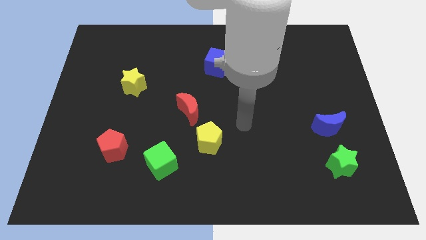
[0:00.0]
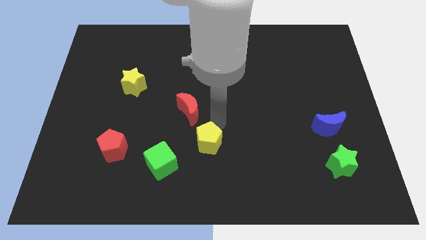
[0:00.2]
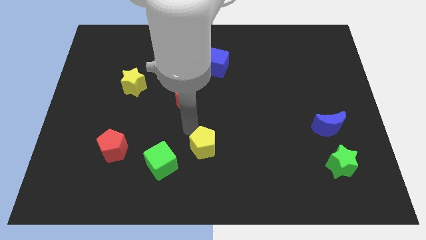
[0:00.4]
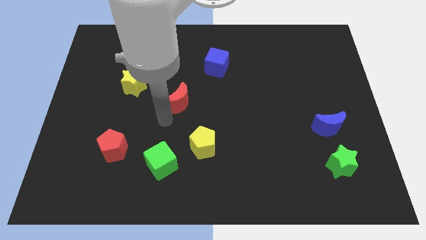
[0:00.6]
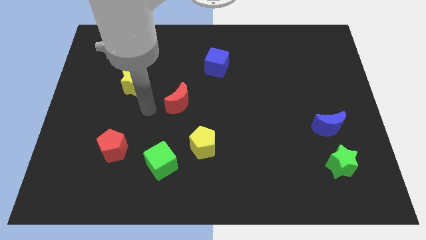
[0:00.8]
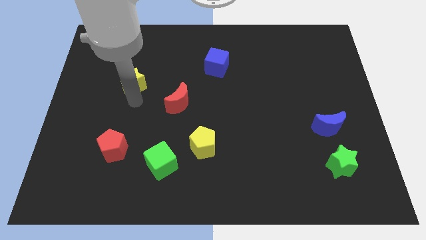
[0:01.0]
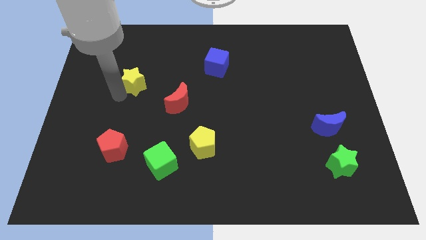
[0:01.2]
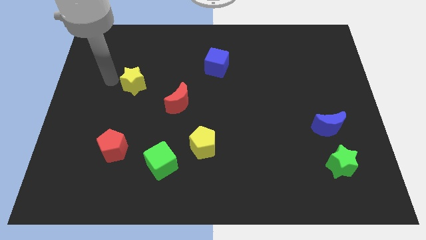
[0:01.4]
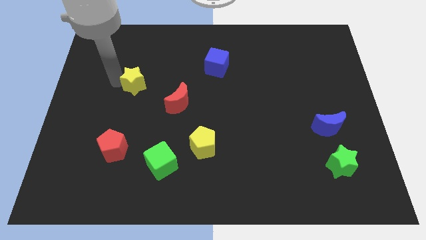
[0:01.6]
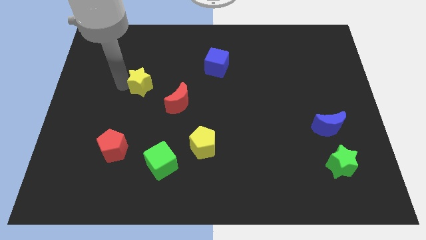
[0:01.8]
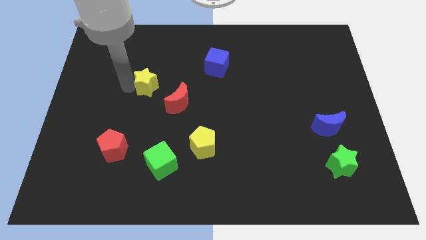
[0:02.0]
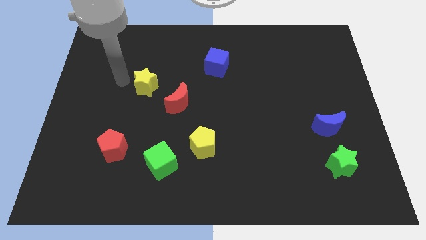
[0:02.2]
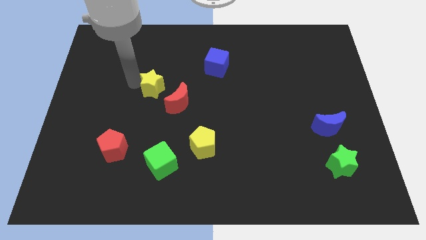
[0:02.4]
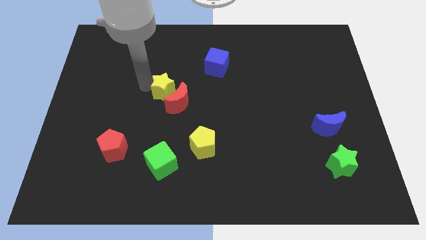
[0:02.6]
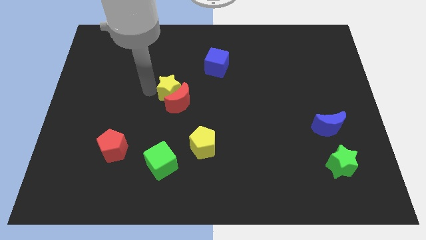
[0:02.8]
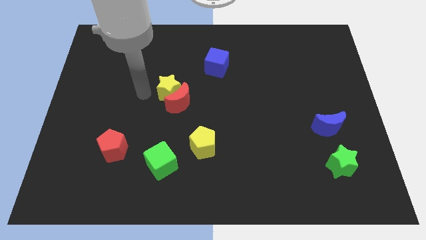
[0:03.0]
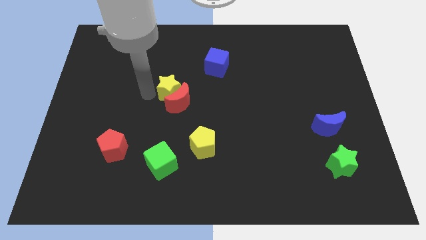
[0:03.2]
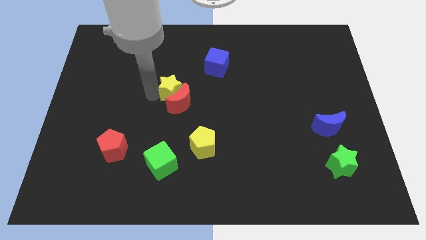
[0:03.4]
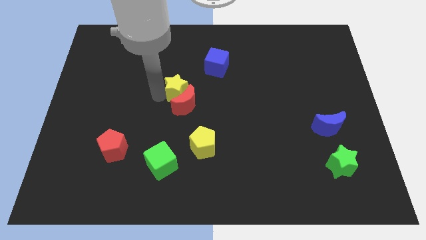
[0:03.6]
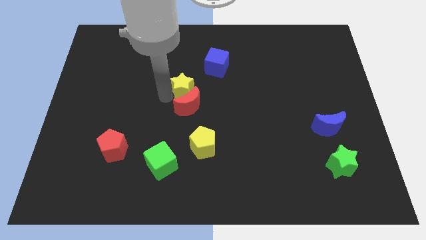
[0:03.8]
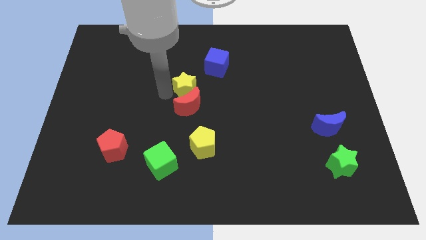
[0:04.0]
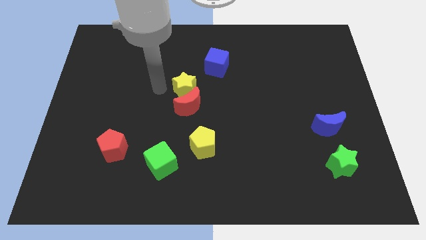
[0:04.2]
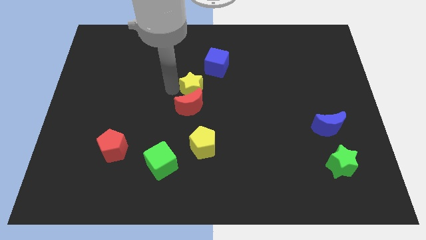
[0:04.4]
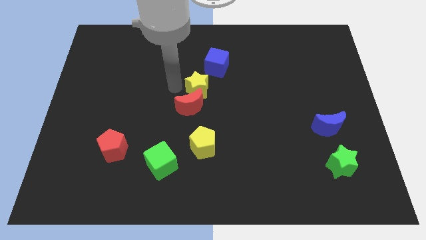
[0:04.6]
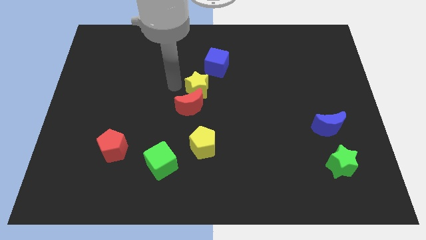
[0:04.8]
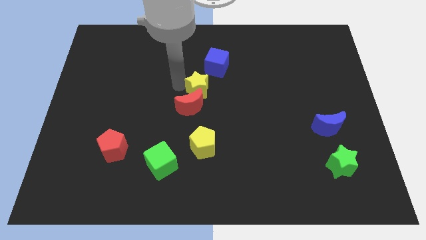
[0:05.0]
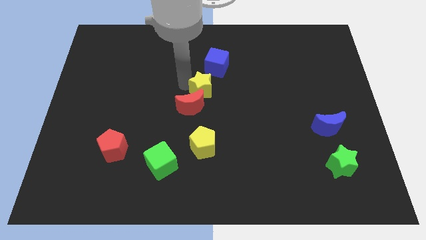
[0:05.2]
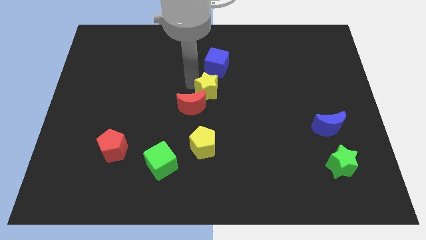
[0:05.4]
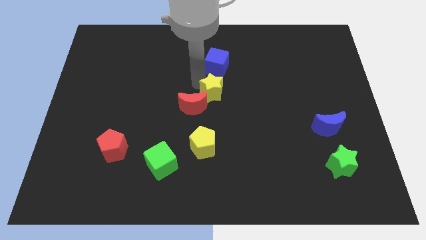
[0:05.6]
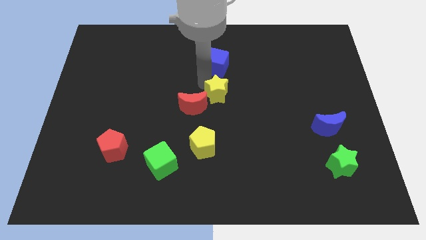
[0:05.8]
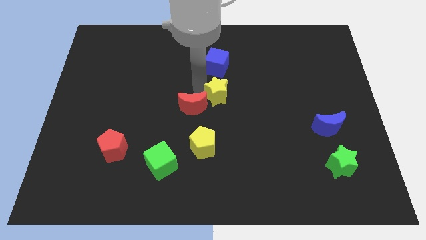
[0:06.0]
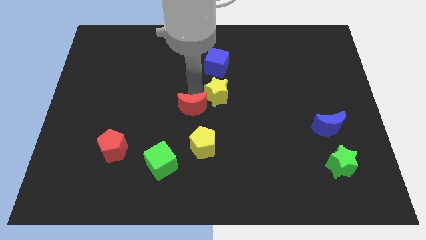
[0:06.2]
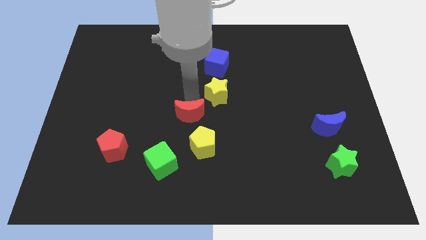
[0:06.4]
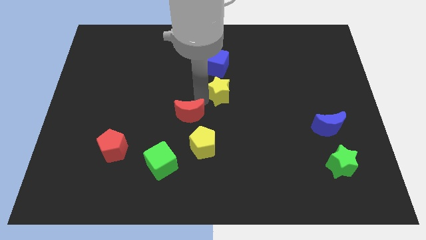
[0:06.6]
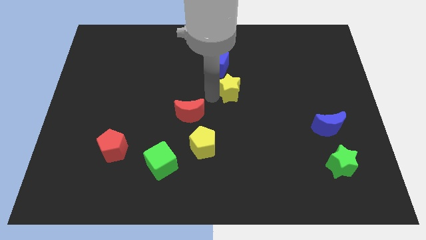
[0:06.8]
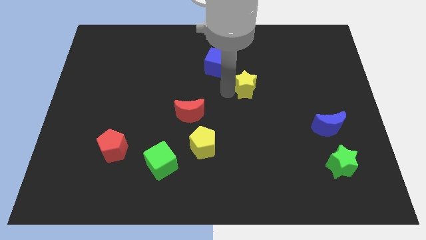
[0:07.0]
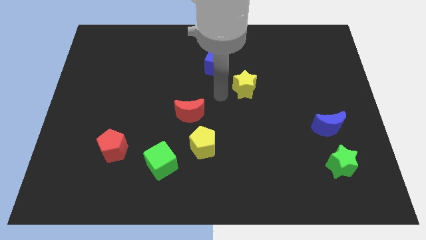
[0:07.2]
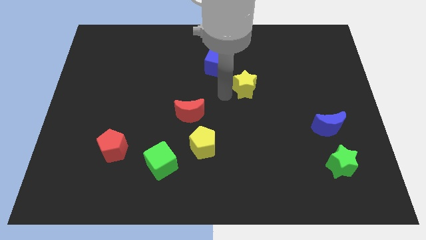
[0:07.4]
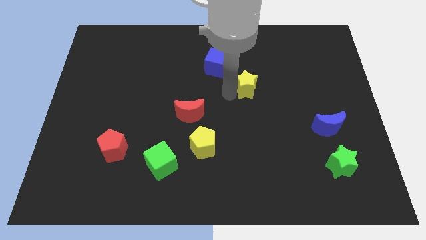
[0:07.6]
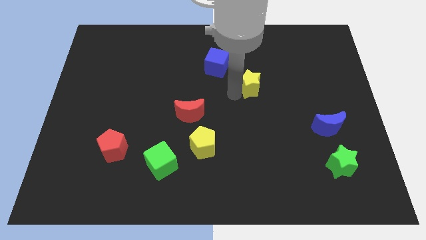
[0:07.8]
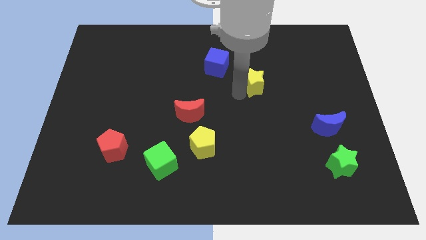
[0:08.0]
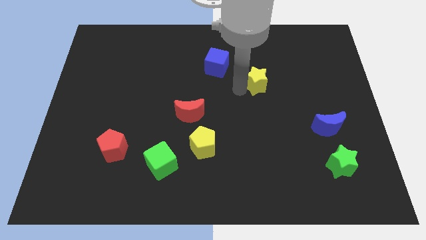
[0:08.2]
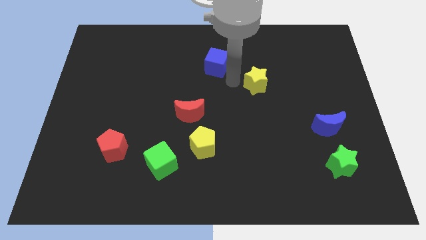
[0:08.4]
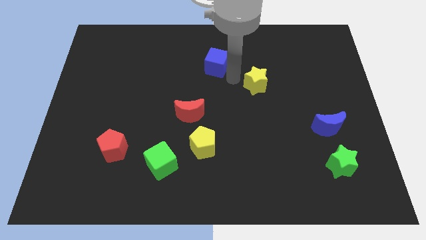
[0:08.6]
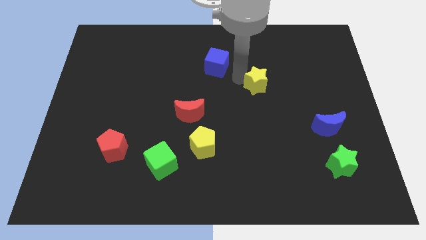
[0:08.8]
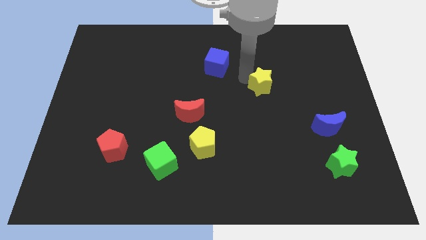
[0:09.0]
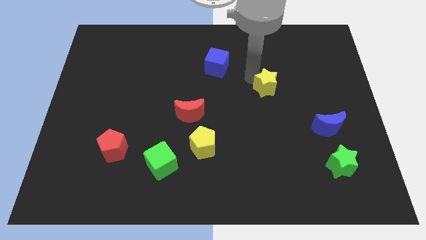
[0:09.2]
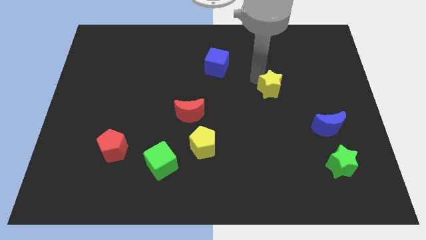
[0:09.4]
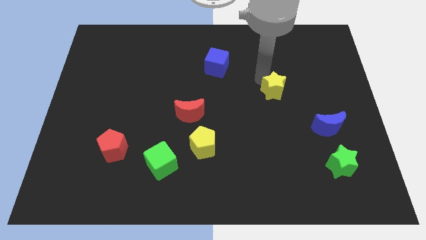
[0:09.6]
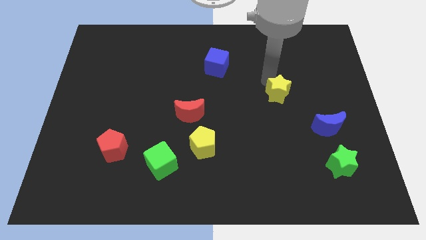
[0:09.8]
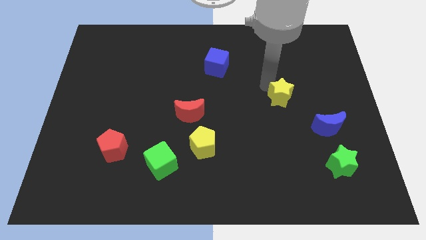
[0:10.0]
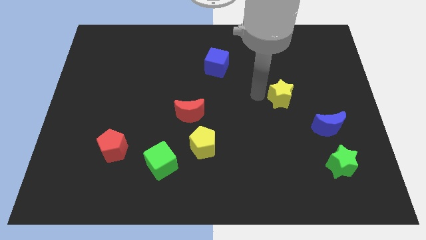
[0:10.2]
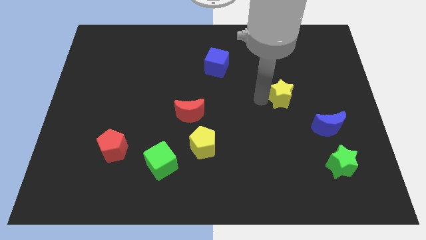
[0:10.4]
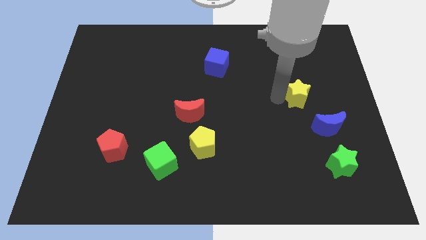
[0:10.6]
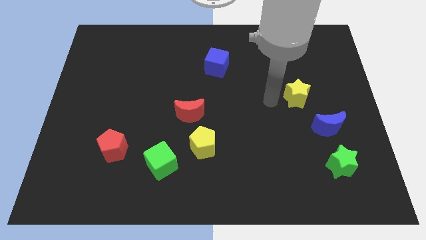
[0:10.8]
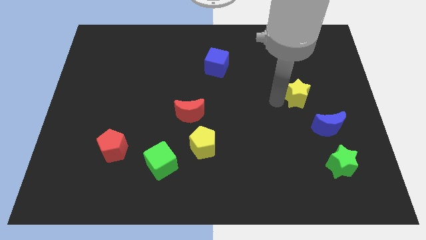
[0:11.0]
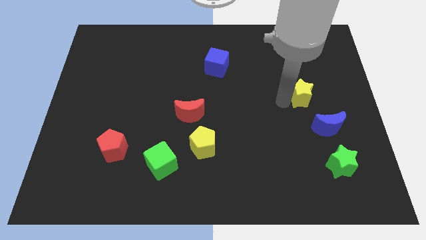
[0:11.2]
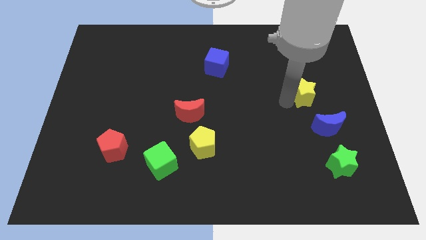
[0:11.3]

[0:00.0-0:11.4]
move the yellow star above the blue moon

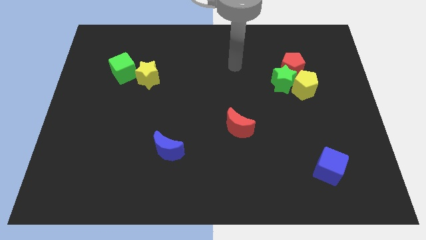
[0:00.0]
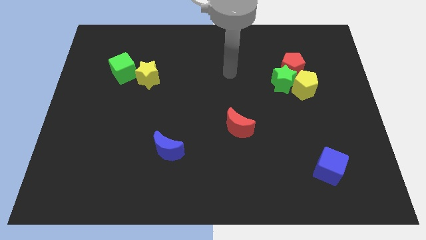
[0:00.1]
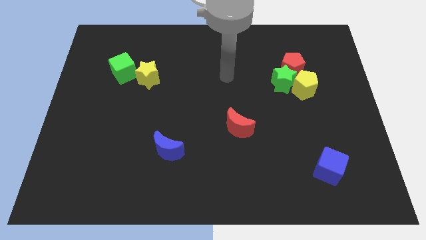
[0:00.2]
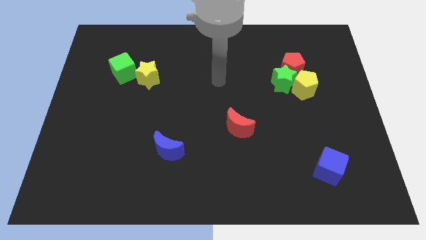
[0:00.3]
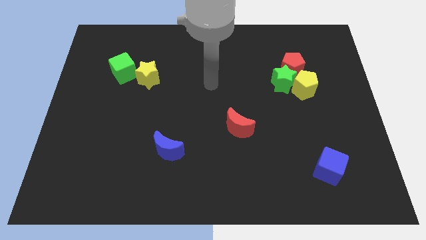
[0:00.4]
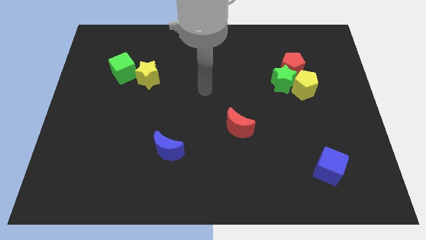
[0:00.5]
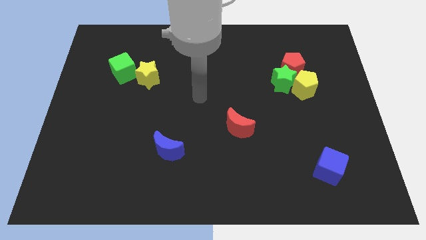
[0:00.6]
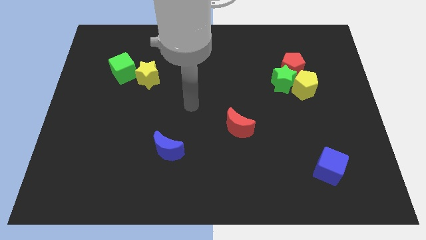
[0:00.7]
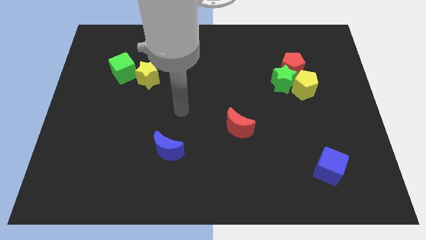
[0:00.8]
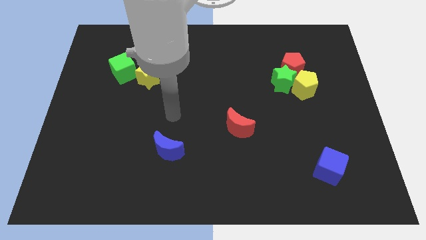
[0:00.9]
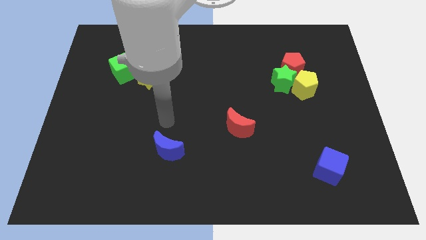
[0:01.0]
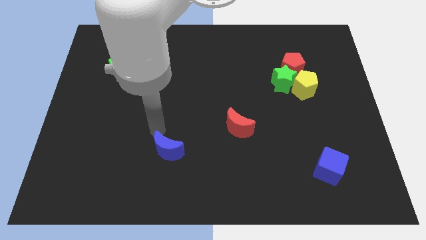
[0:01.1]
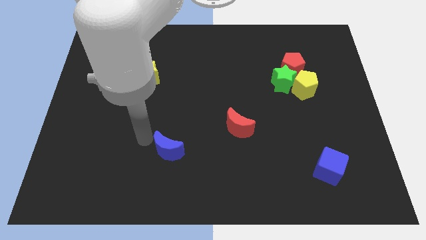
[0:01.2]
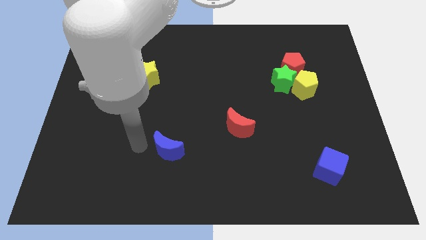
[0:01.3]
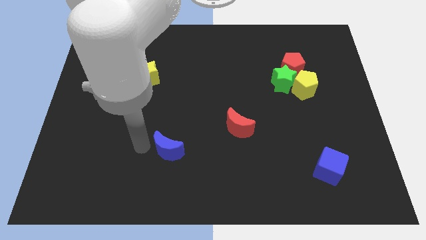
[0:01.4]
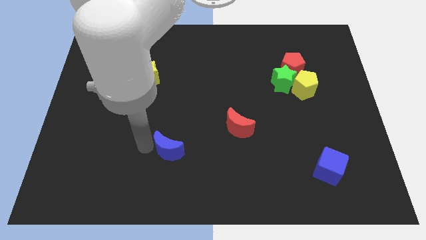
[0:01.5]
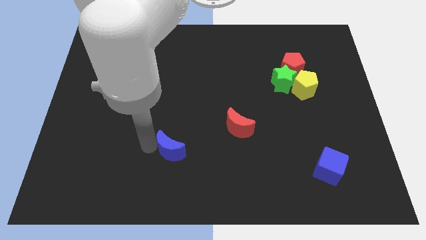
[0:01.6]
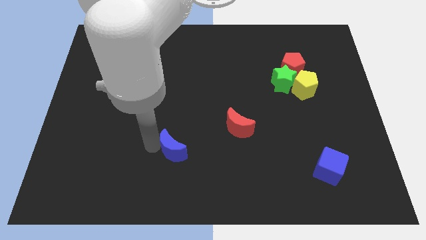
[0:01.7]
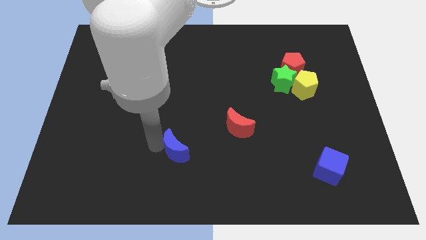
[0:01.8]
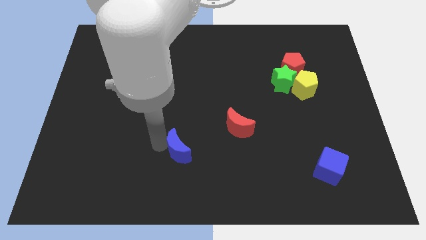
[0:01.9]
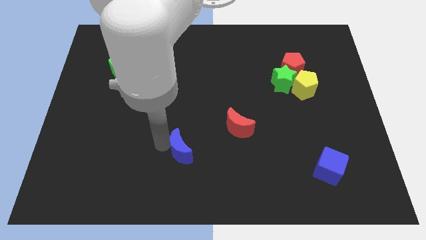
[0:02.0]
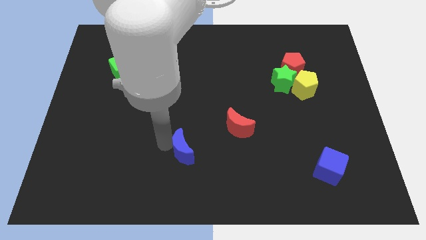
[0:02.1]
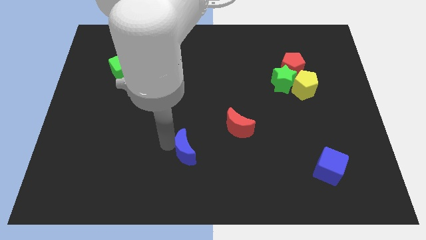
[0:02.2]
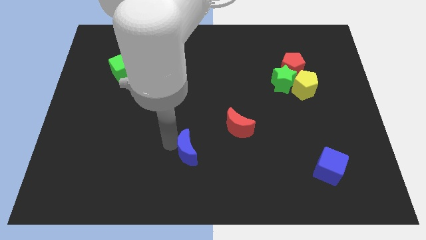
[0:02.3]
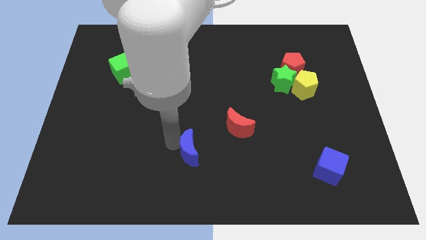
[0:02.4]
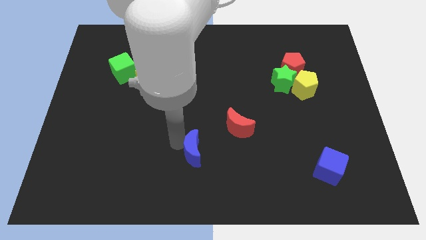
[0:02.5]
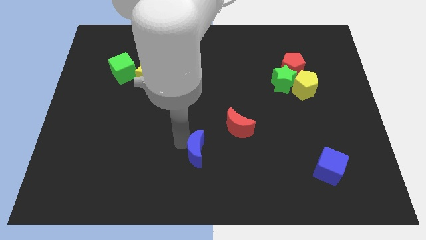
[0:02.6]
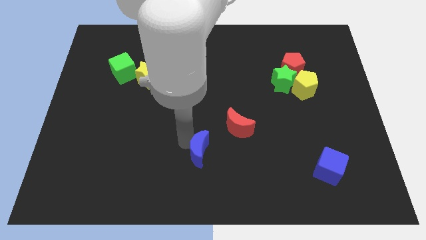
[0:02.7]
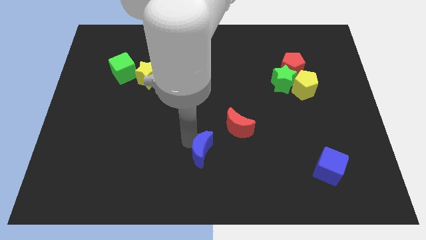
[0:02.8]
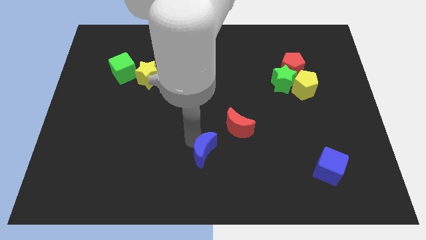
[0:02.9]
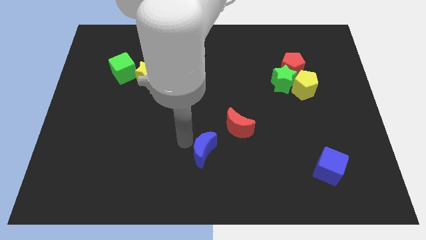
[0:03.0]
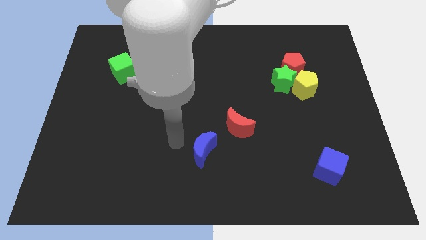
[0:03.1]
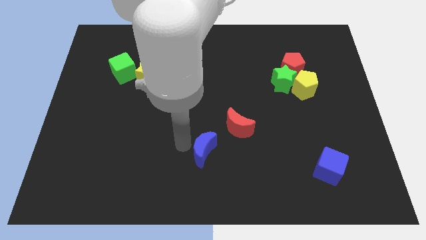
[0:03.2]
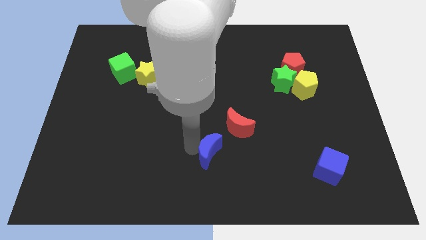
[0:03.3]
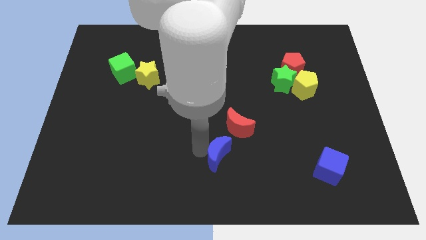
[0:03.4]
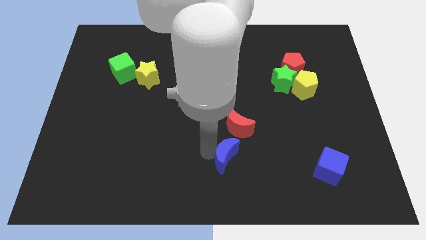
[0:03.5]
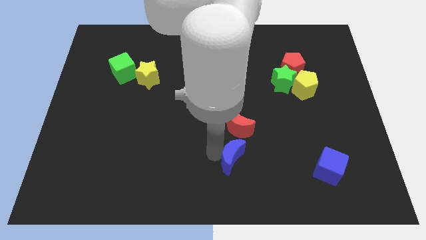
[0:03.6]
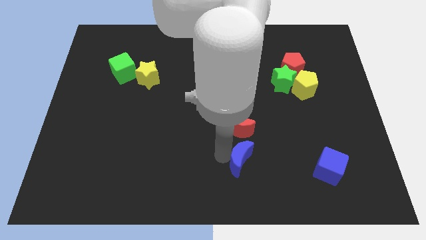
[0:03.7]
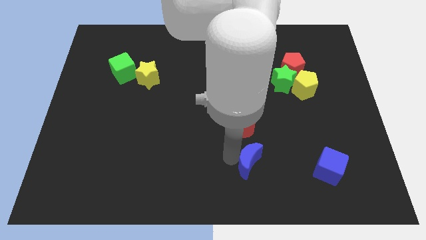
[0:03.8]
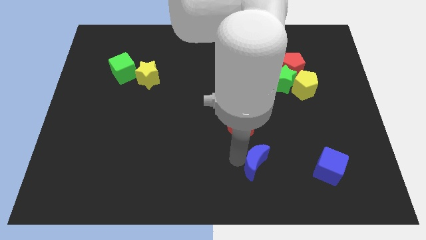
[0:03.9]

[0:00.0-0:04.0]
push the blue moon just left of the blue cube
